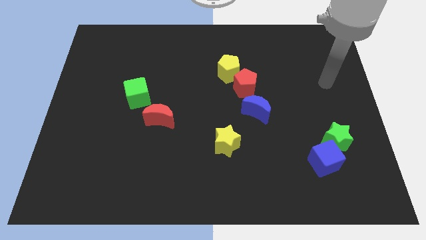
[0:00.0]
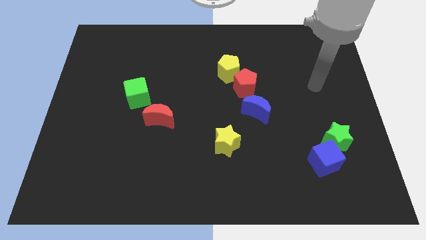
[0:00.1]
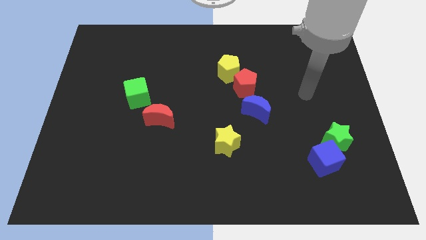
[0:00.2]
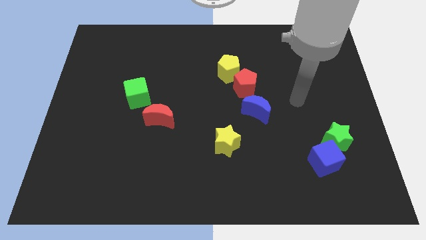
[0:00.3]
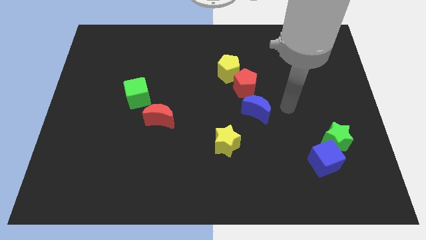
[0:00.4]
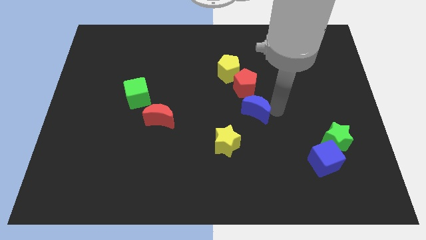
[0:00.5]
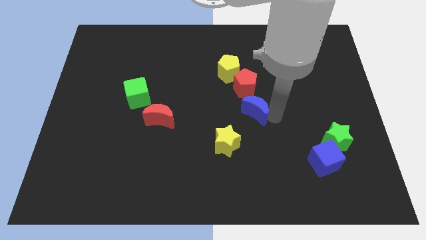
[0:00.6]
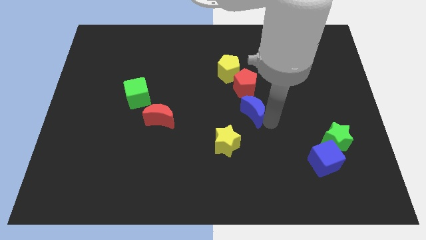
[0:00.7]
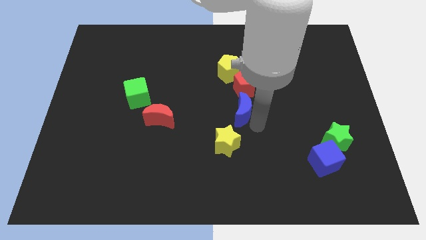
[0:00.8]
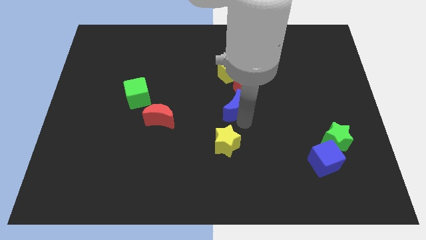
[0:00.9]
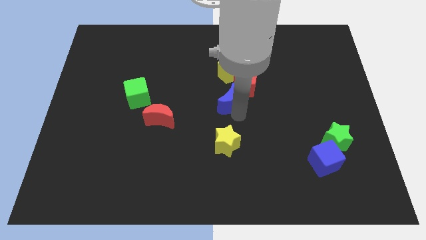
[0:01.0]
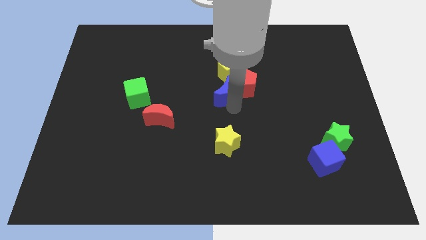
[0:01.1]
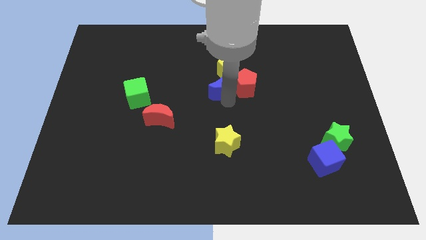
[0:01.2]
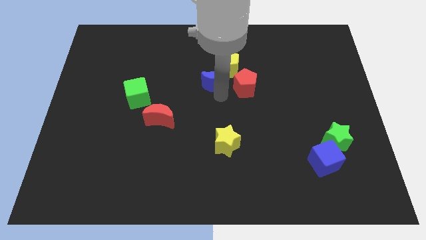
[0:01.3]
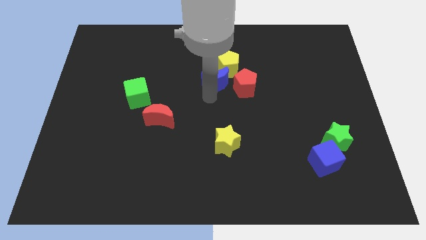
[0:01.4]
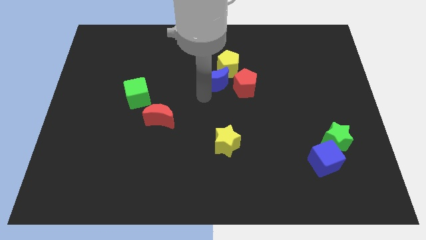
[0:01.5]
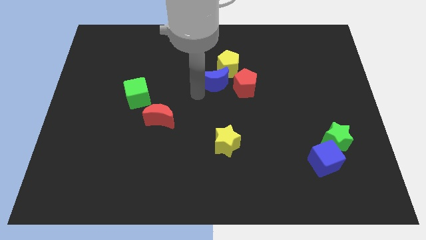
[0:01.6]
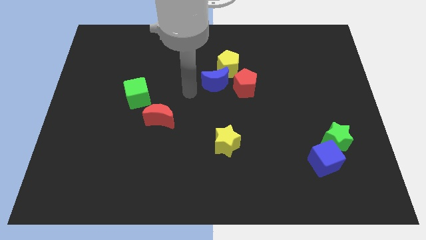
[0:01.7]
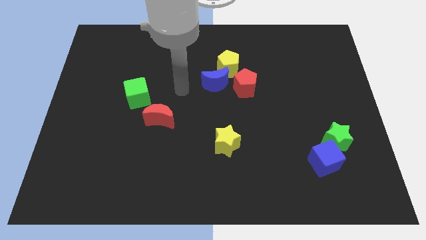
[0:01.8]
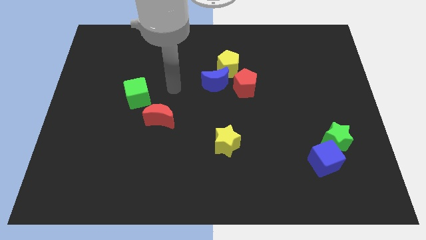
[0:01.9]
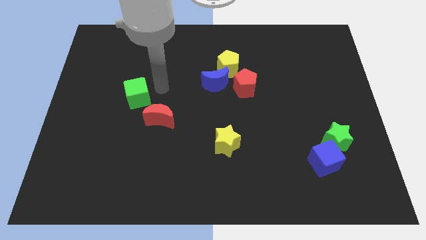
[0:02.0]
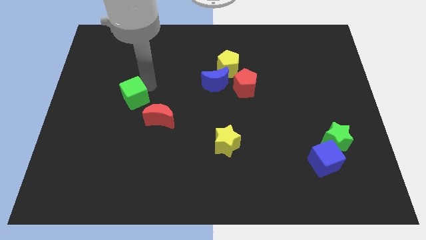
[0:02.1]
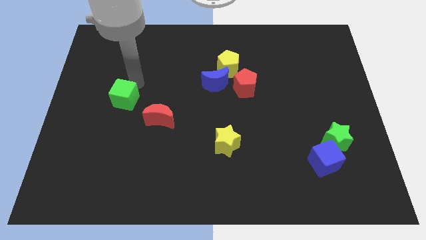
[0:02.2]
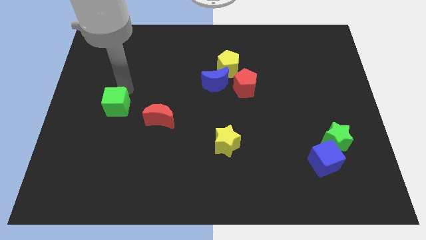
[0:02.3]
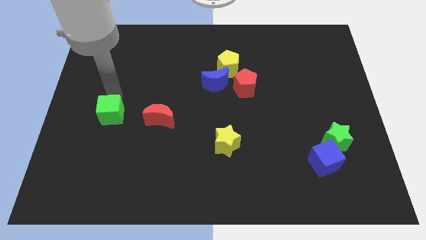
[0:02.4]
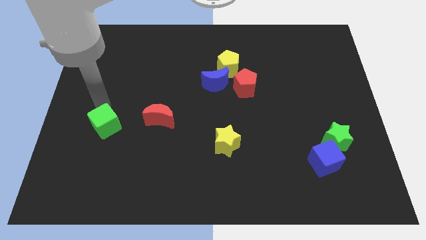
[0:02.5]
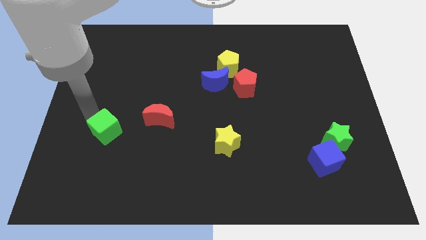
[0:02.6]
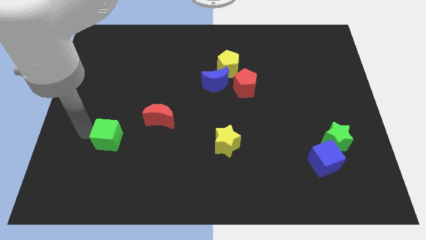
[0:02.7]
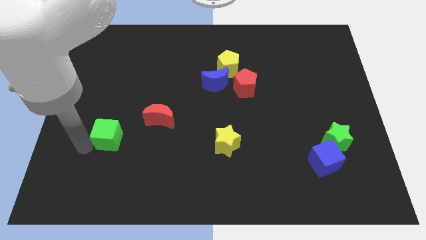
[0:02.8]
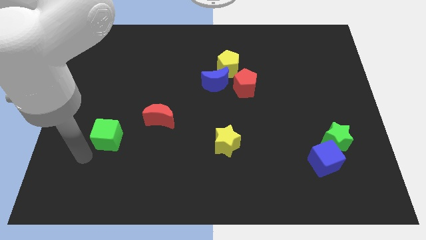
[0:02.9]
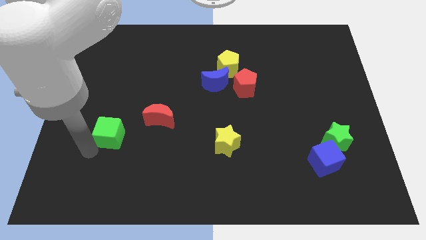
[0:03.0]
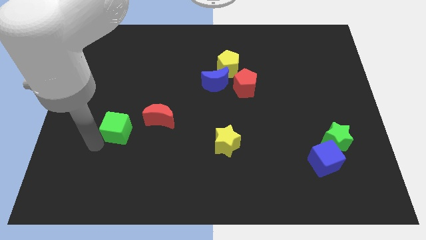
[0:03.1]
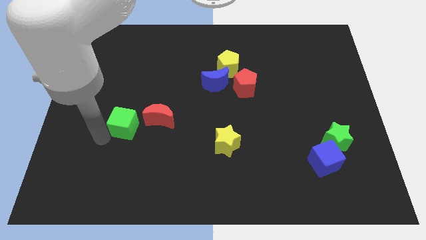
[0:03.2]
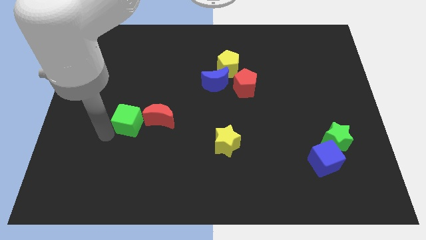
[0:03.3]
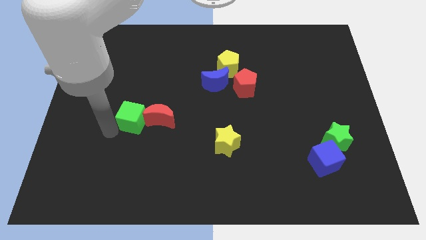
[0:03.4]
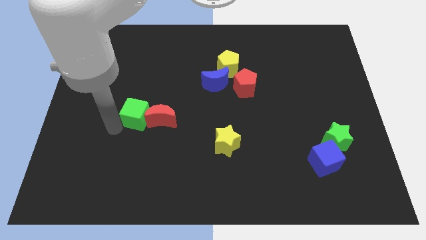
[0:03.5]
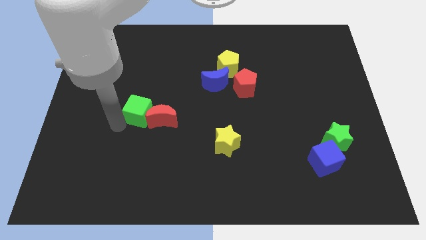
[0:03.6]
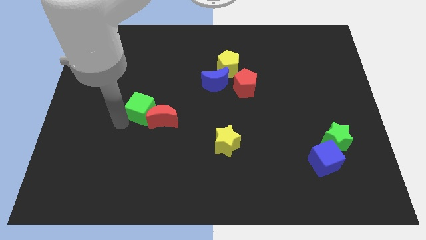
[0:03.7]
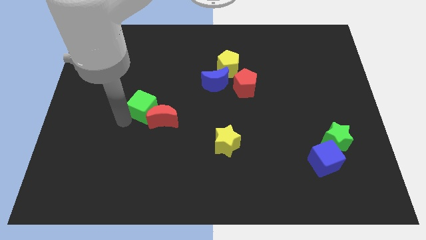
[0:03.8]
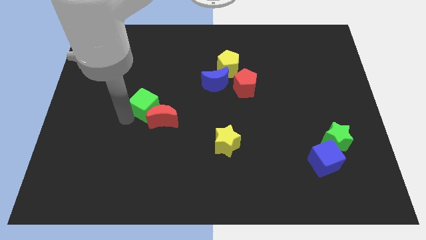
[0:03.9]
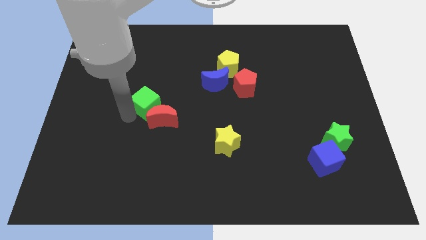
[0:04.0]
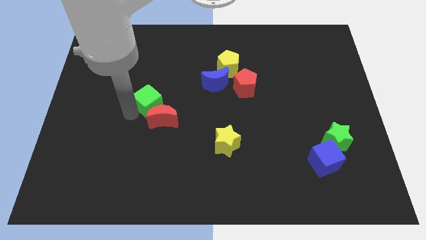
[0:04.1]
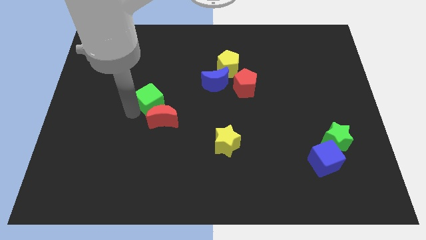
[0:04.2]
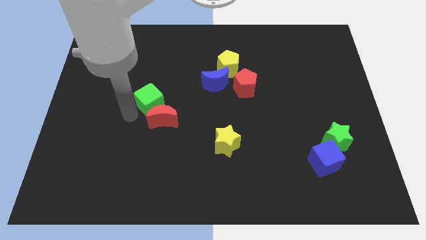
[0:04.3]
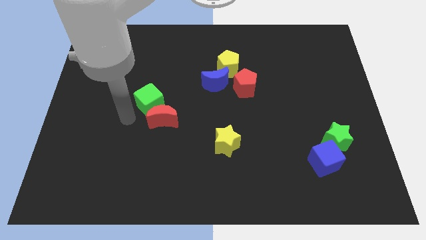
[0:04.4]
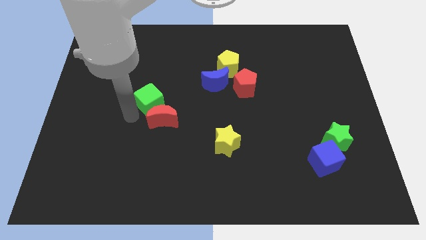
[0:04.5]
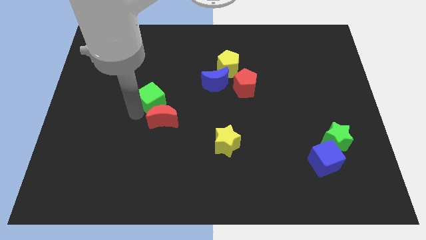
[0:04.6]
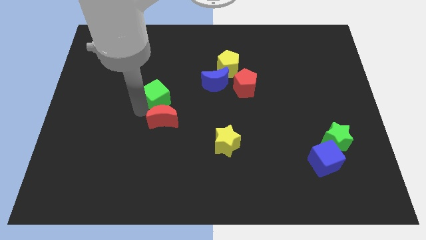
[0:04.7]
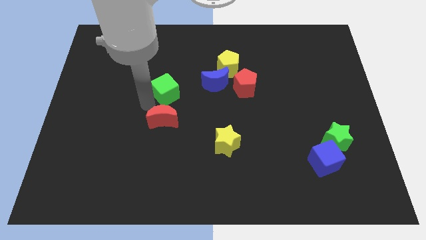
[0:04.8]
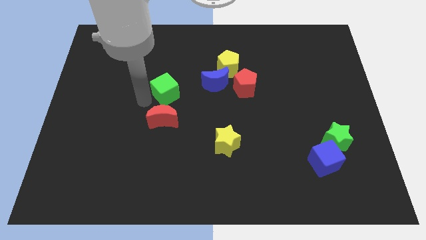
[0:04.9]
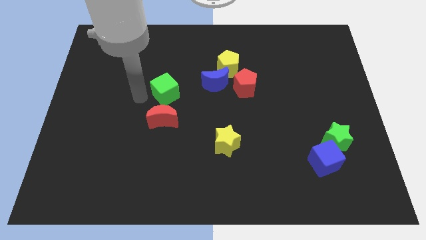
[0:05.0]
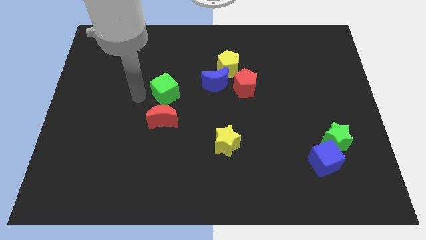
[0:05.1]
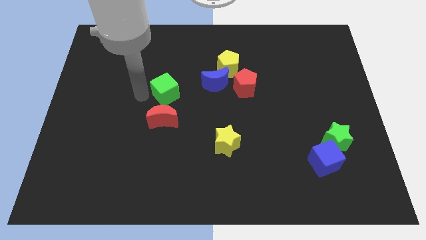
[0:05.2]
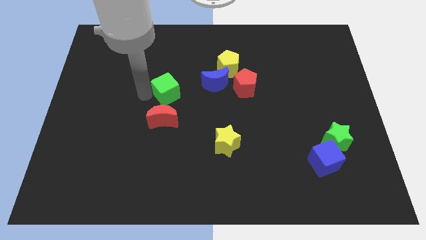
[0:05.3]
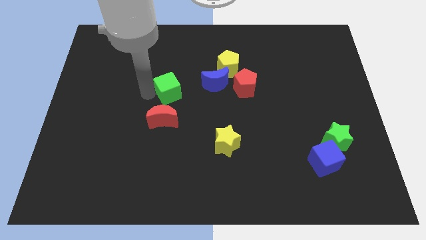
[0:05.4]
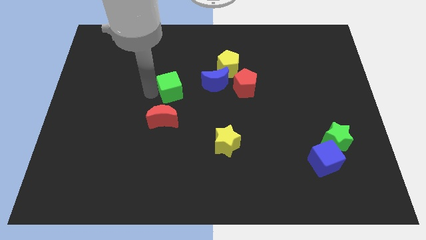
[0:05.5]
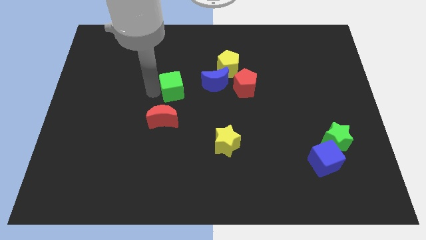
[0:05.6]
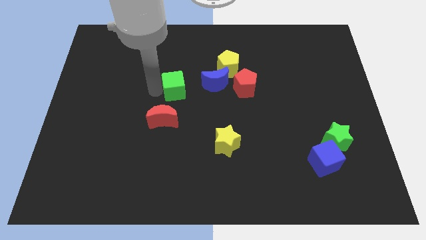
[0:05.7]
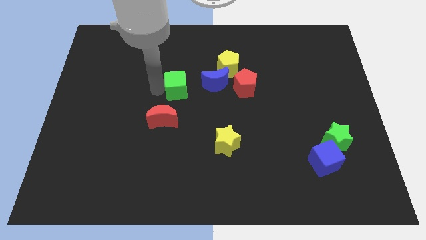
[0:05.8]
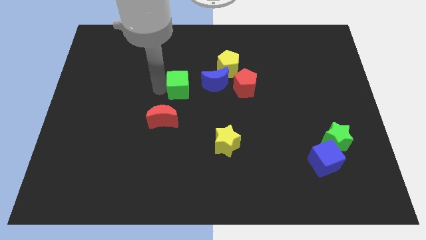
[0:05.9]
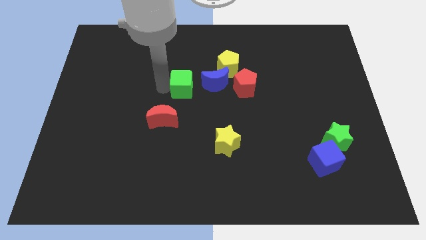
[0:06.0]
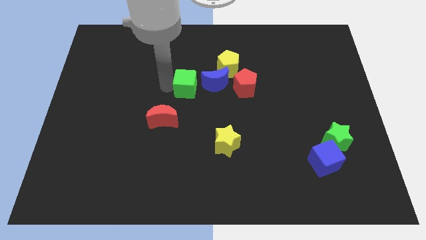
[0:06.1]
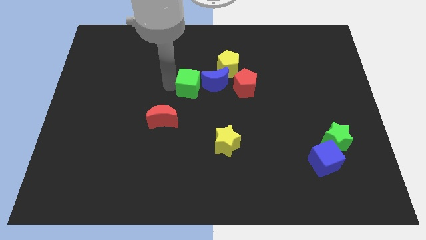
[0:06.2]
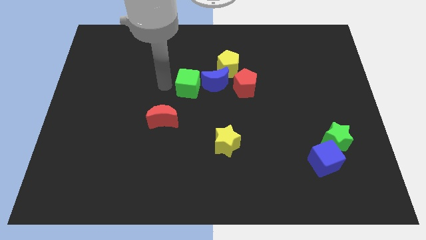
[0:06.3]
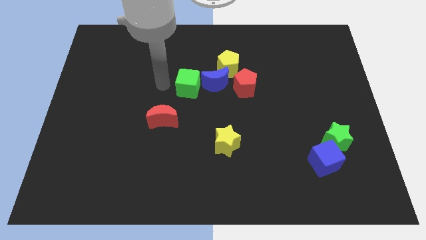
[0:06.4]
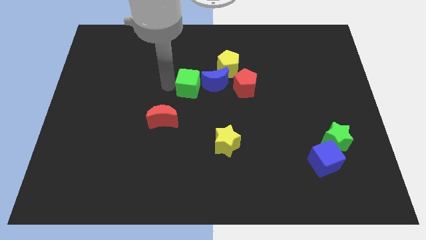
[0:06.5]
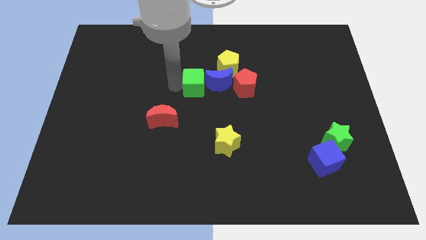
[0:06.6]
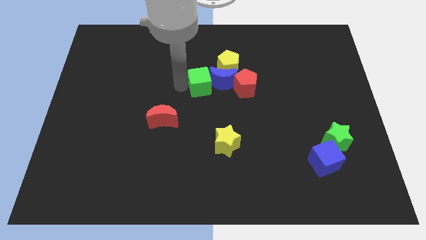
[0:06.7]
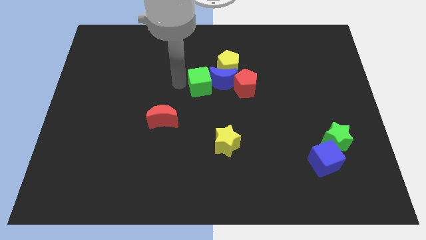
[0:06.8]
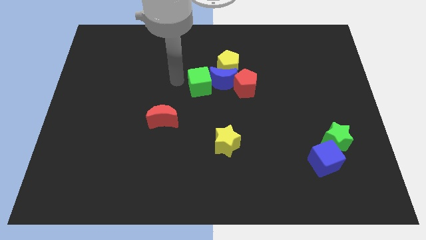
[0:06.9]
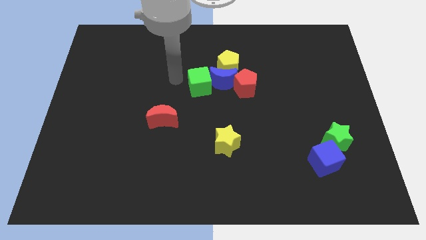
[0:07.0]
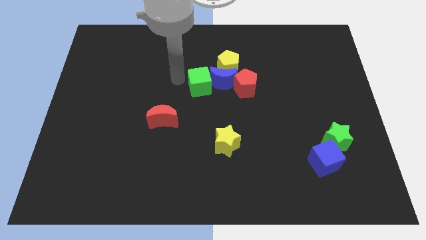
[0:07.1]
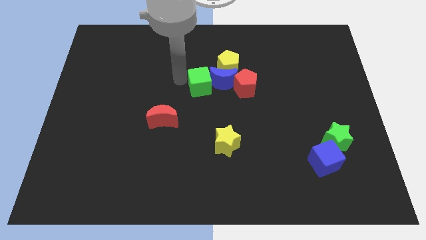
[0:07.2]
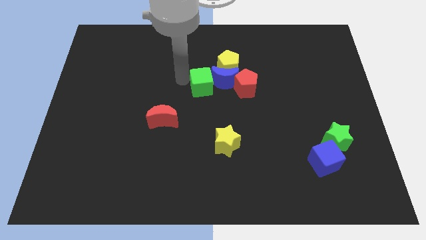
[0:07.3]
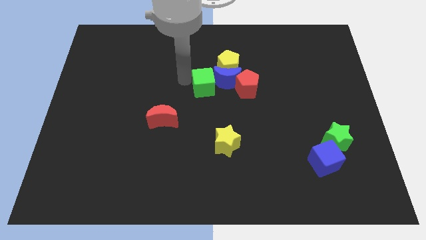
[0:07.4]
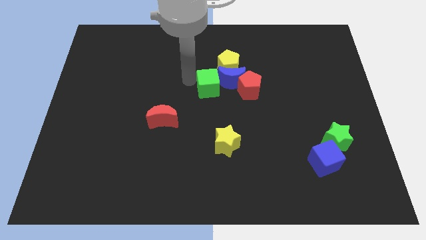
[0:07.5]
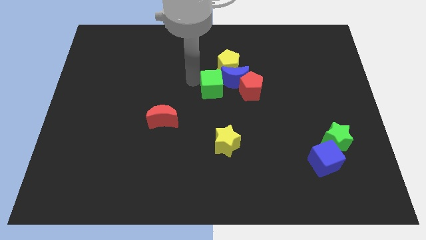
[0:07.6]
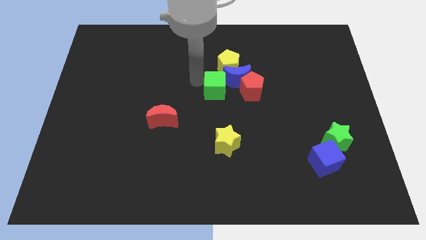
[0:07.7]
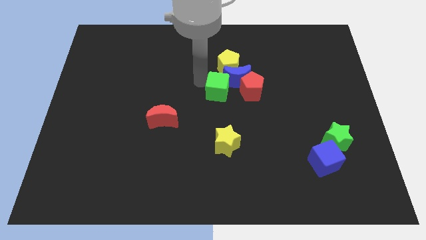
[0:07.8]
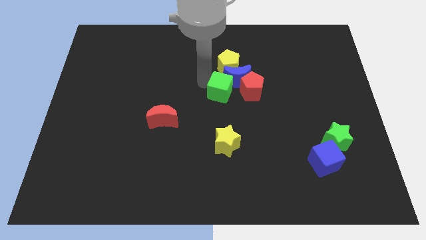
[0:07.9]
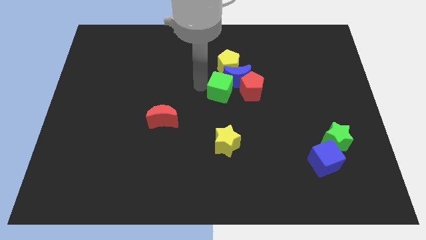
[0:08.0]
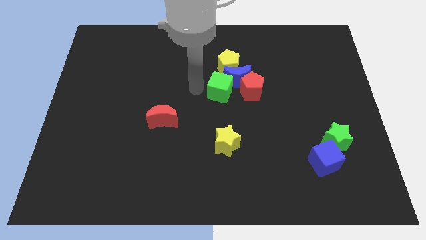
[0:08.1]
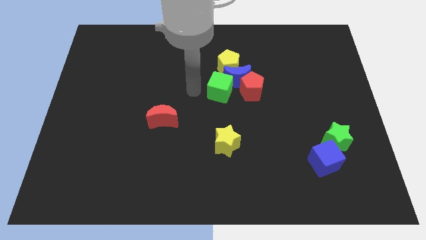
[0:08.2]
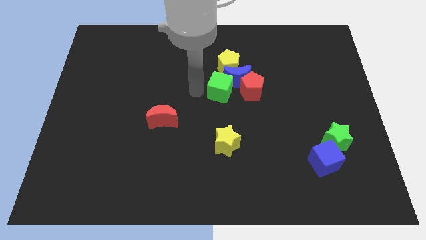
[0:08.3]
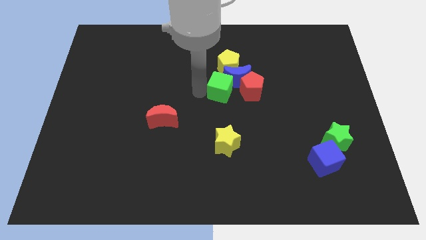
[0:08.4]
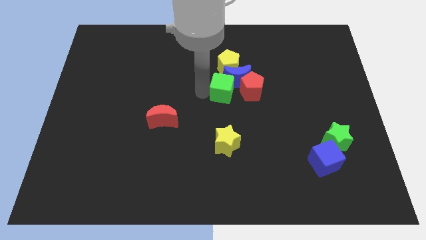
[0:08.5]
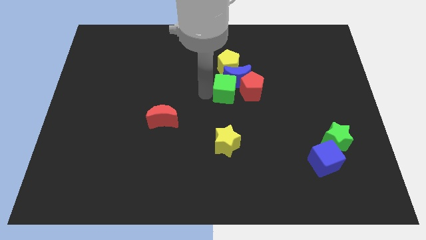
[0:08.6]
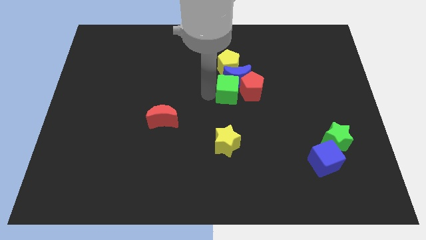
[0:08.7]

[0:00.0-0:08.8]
push the green cube towards the red pentagon
